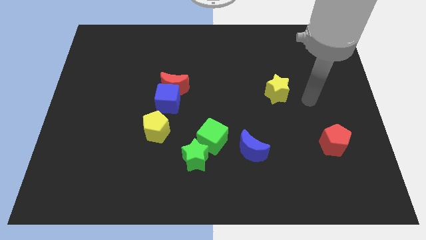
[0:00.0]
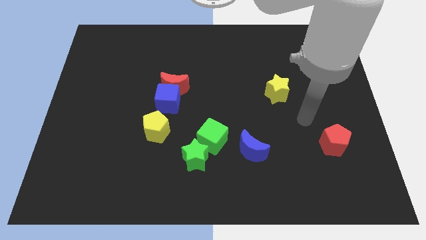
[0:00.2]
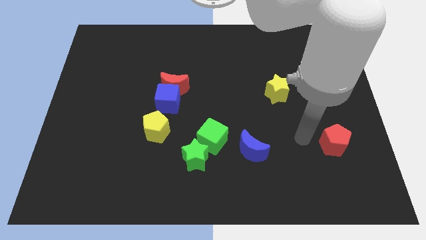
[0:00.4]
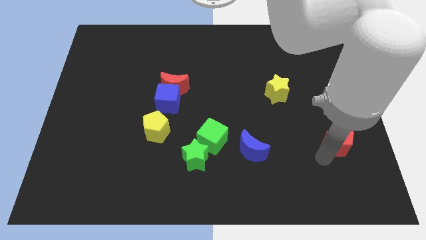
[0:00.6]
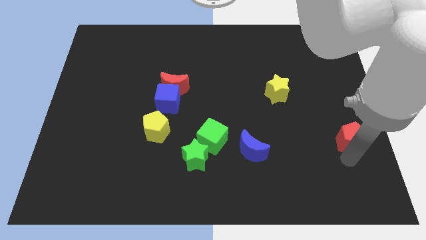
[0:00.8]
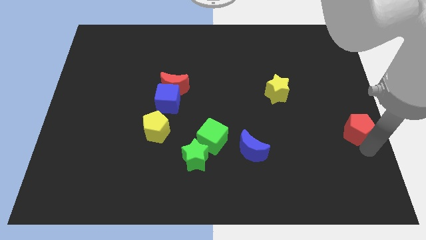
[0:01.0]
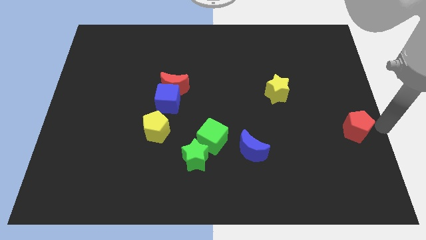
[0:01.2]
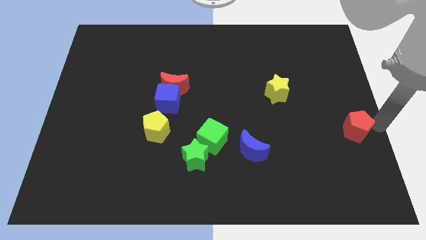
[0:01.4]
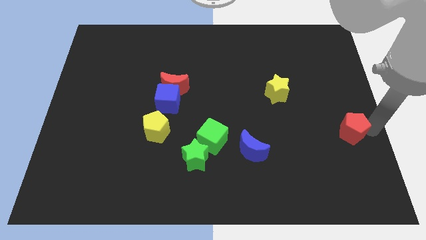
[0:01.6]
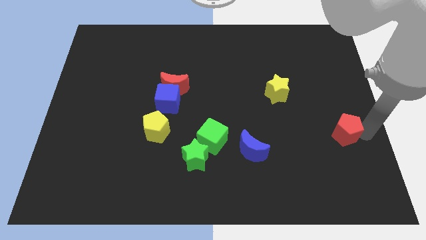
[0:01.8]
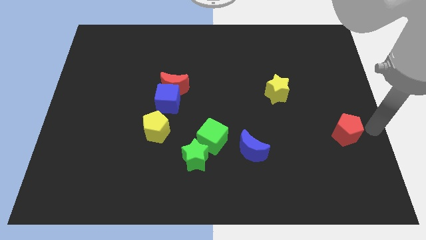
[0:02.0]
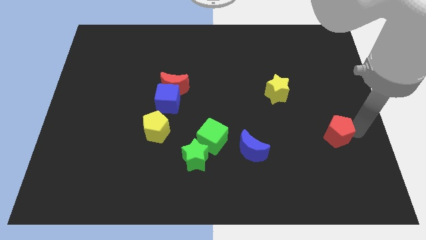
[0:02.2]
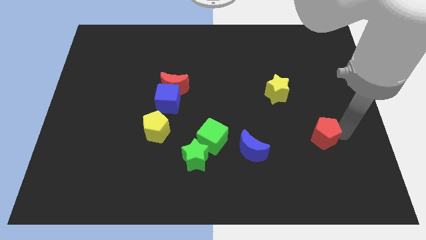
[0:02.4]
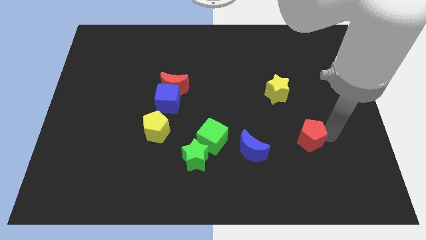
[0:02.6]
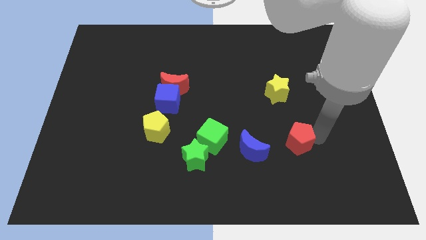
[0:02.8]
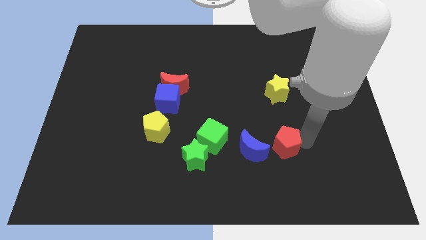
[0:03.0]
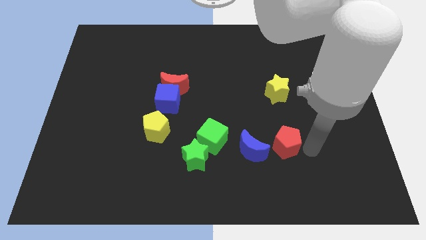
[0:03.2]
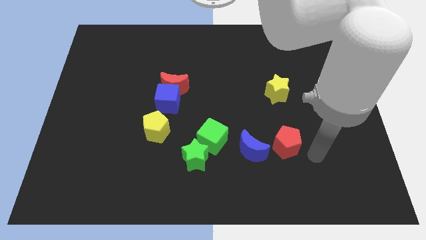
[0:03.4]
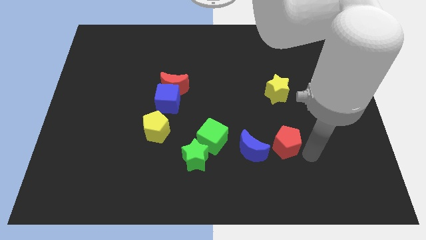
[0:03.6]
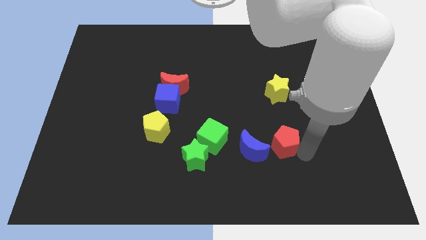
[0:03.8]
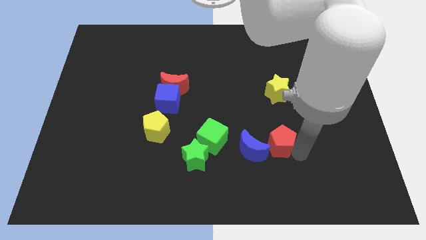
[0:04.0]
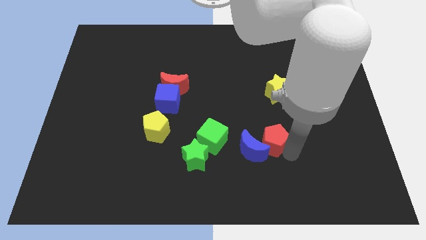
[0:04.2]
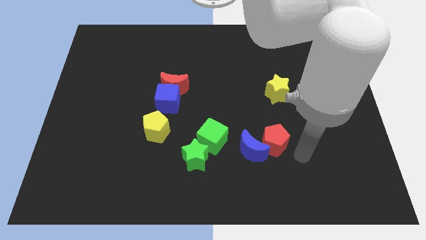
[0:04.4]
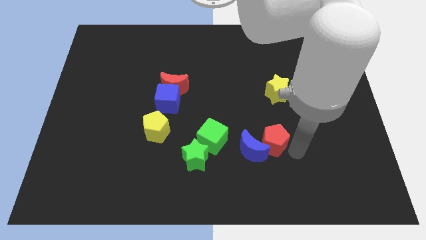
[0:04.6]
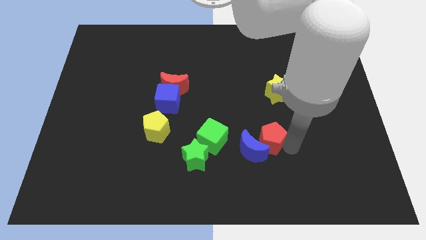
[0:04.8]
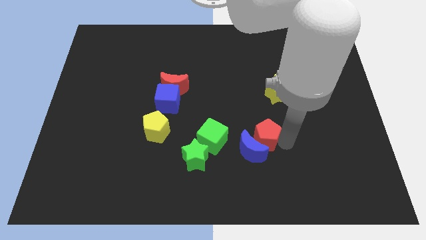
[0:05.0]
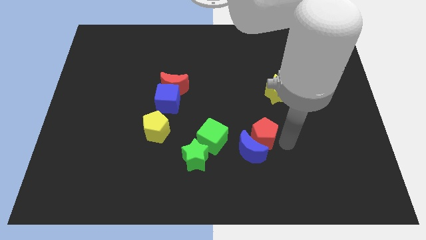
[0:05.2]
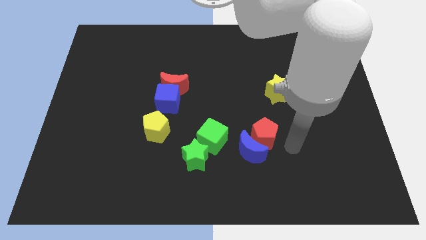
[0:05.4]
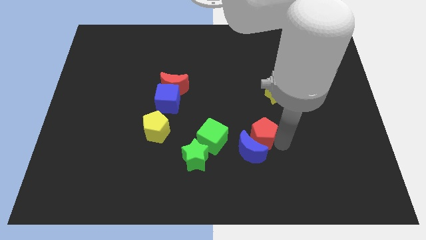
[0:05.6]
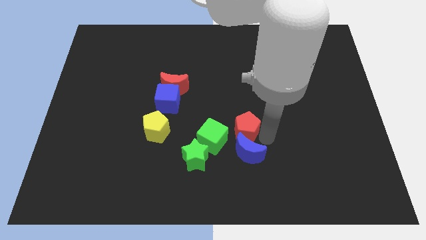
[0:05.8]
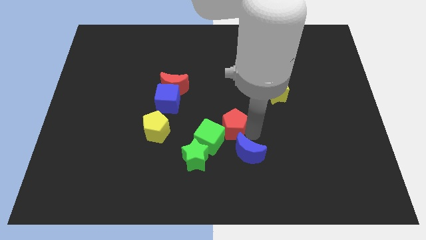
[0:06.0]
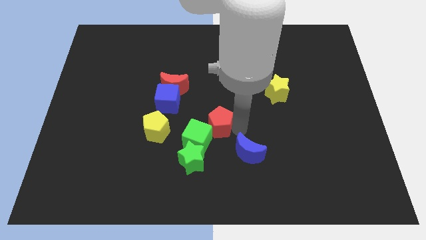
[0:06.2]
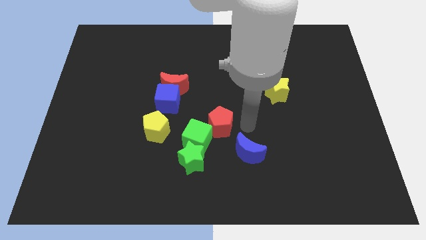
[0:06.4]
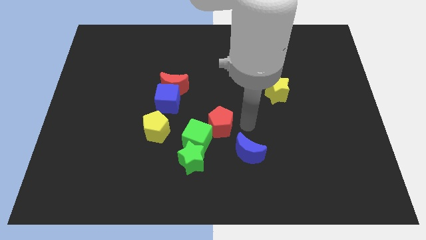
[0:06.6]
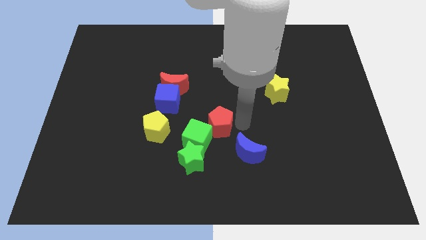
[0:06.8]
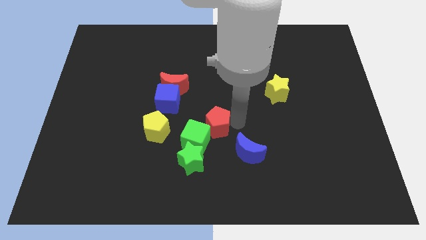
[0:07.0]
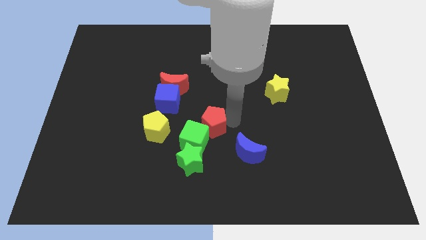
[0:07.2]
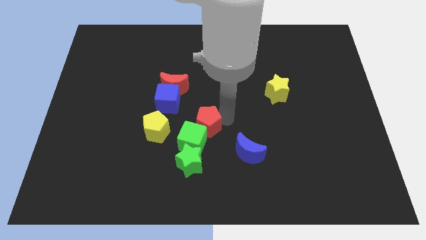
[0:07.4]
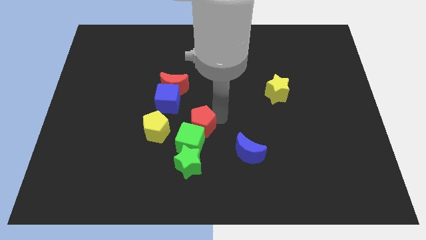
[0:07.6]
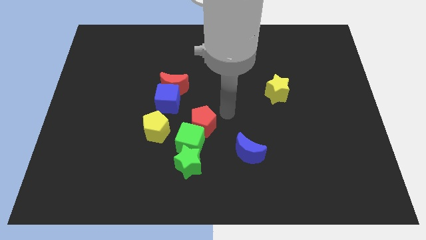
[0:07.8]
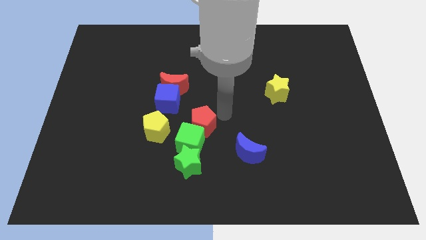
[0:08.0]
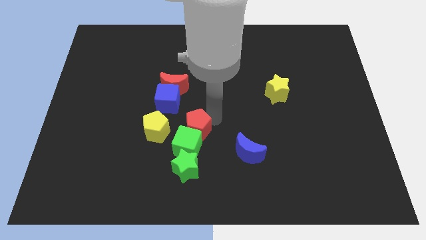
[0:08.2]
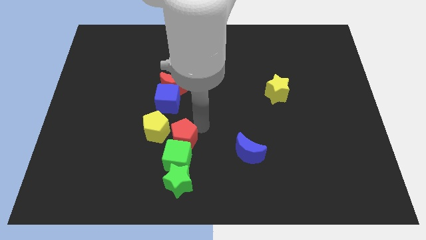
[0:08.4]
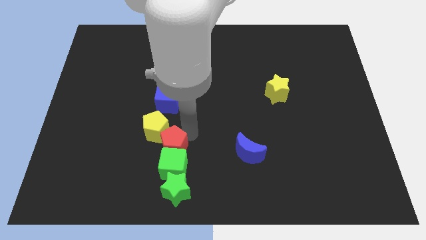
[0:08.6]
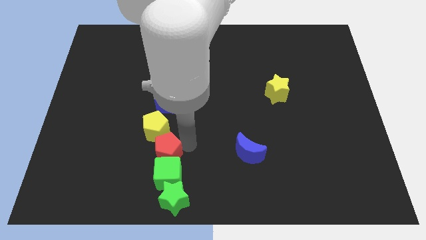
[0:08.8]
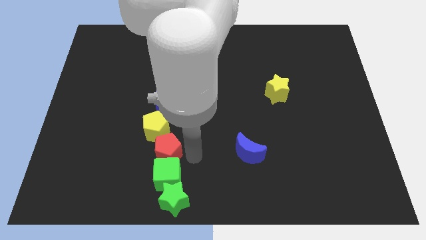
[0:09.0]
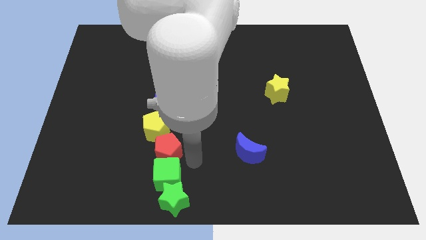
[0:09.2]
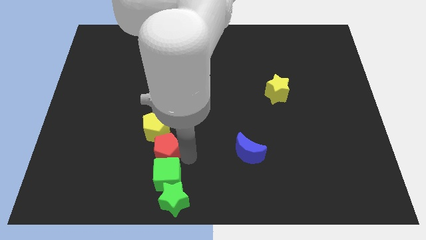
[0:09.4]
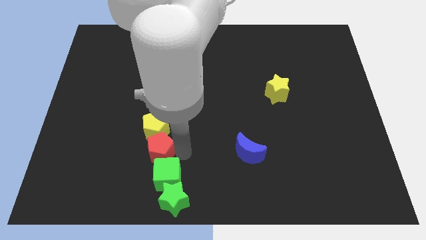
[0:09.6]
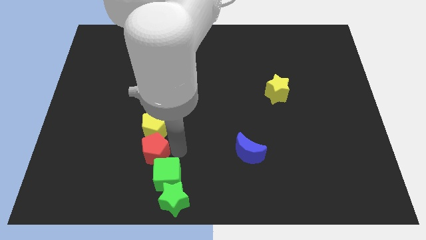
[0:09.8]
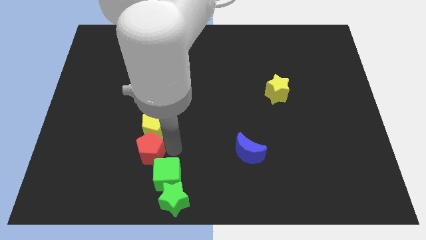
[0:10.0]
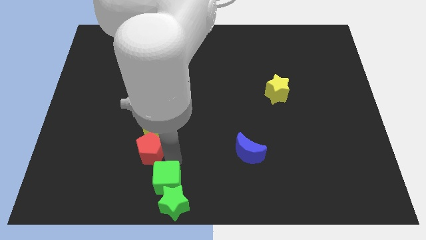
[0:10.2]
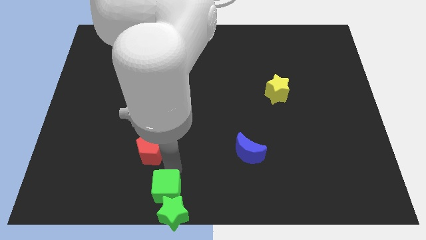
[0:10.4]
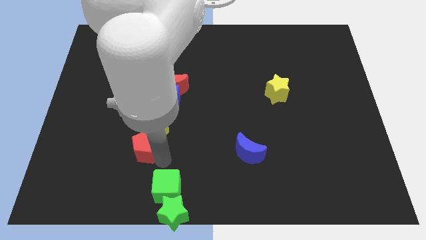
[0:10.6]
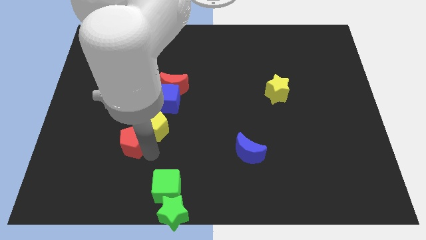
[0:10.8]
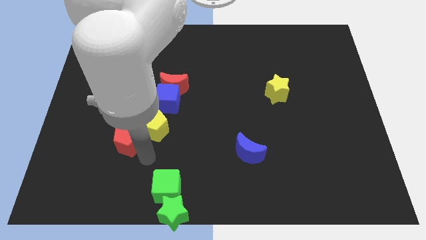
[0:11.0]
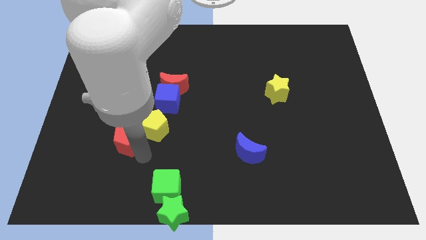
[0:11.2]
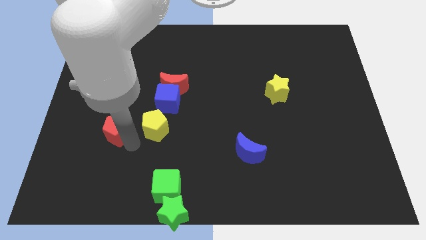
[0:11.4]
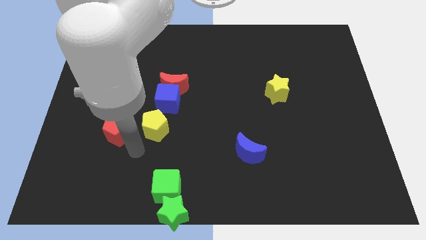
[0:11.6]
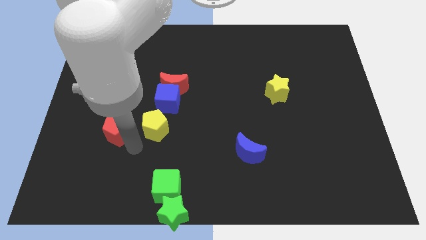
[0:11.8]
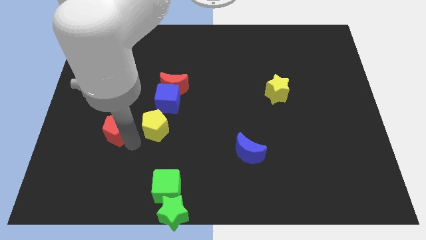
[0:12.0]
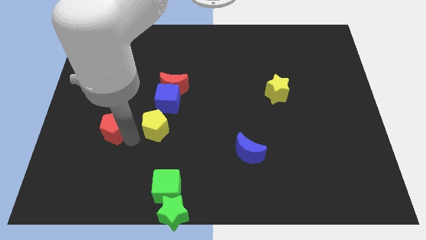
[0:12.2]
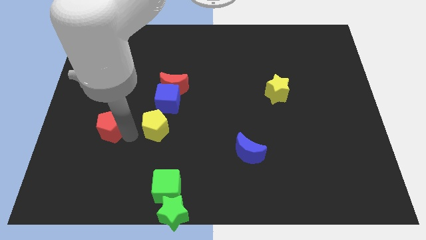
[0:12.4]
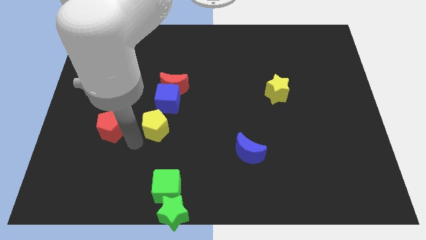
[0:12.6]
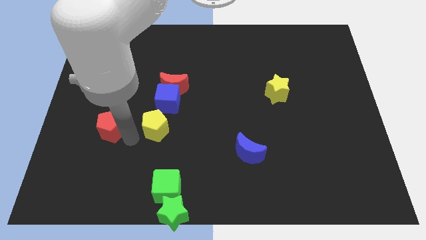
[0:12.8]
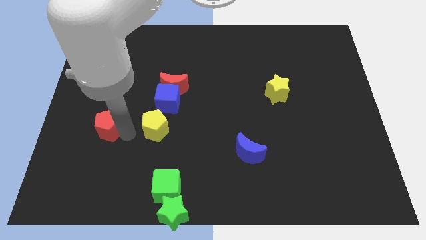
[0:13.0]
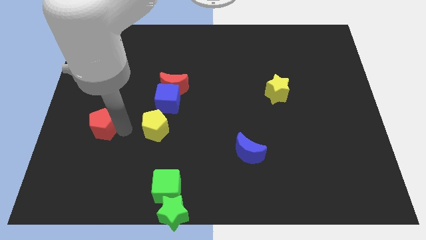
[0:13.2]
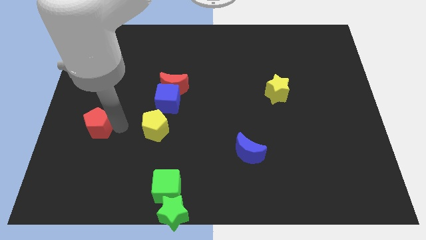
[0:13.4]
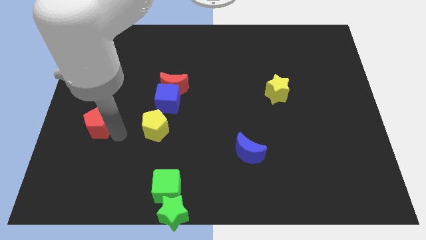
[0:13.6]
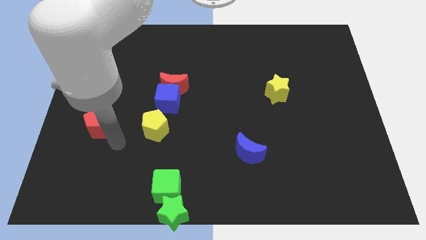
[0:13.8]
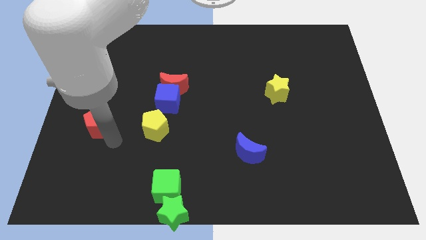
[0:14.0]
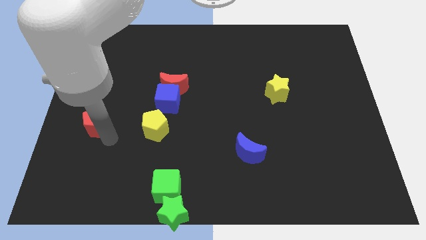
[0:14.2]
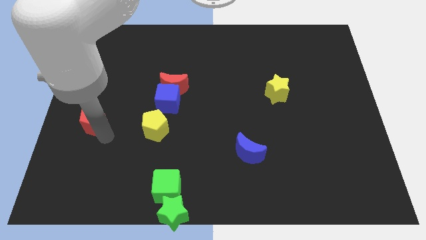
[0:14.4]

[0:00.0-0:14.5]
push the red pentagon to the center left
